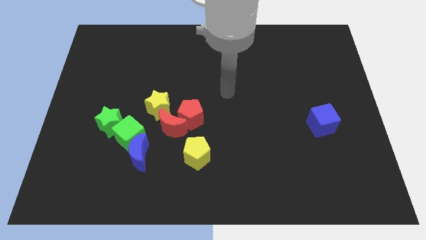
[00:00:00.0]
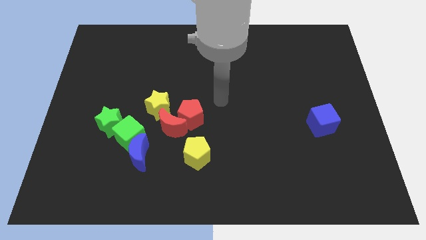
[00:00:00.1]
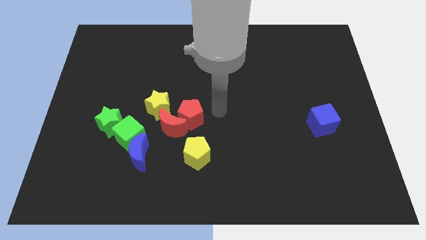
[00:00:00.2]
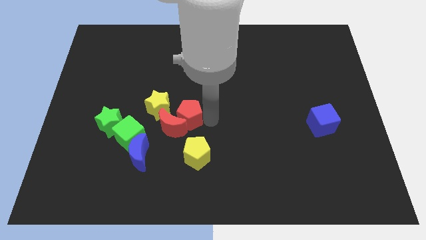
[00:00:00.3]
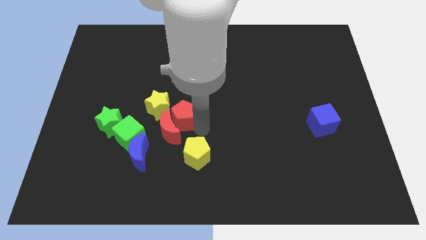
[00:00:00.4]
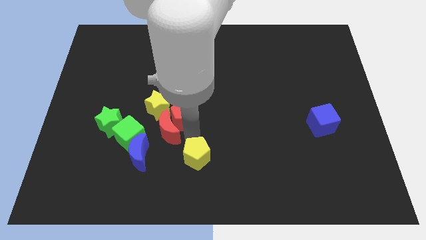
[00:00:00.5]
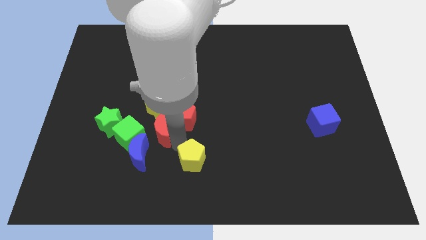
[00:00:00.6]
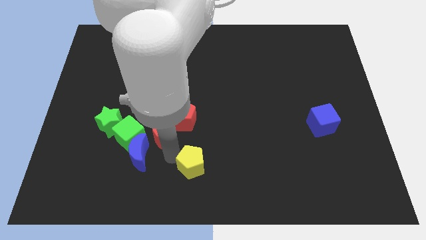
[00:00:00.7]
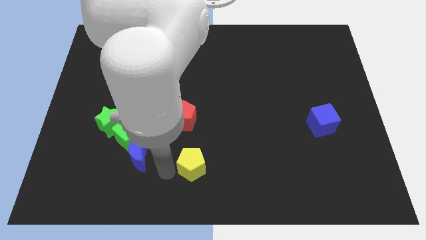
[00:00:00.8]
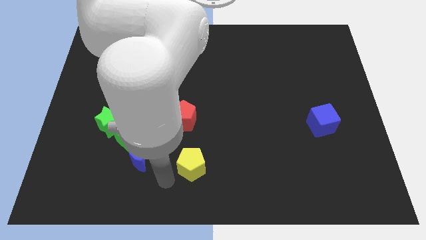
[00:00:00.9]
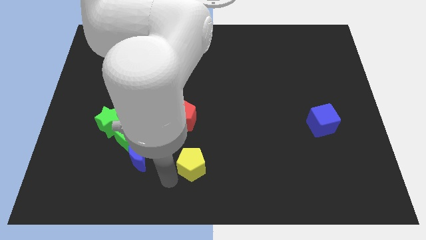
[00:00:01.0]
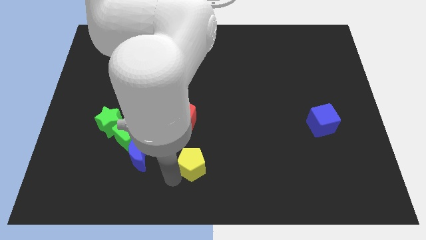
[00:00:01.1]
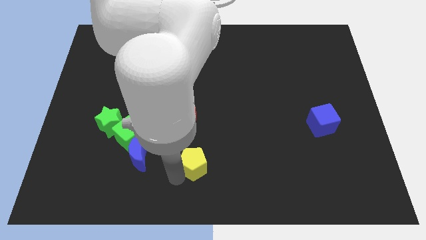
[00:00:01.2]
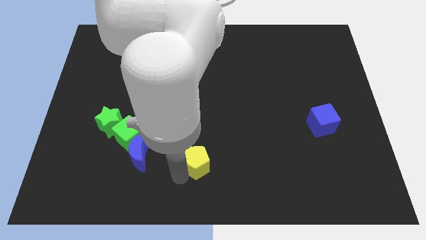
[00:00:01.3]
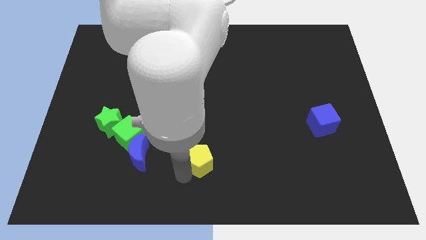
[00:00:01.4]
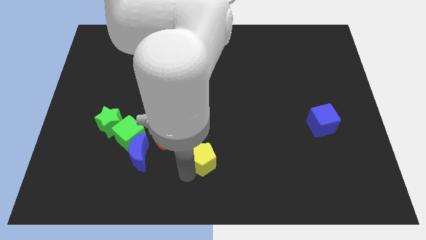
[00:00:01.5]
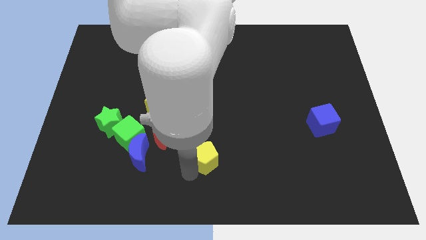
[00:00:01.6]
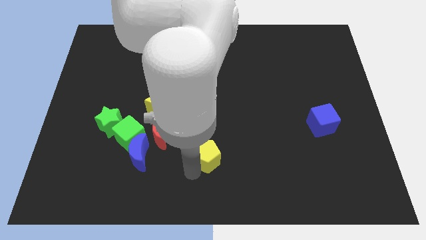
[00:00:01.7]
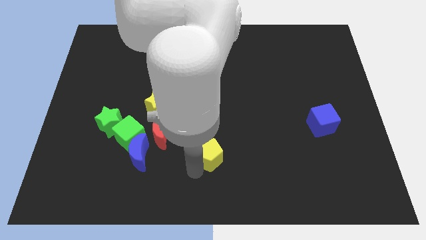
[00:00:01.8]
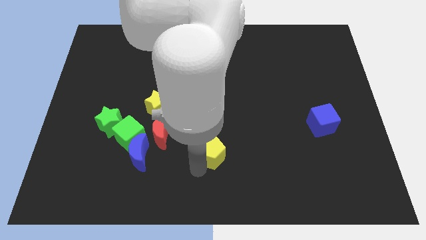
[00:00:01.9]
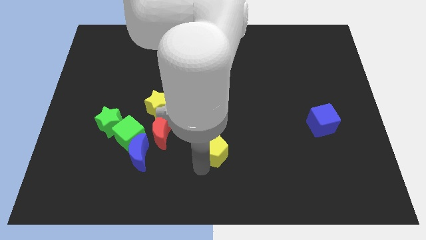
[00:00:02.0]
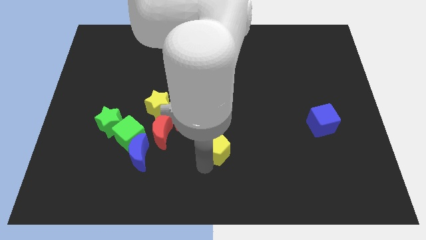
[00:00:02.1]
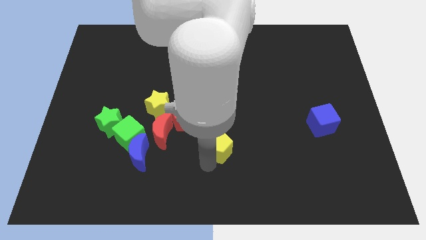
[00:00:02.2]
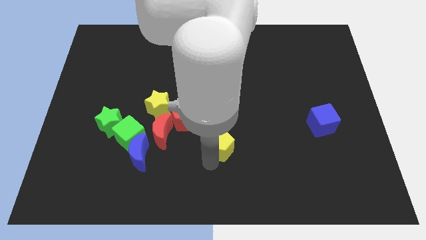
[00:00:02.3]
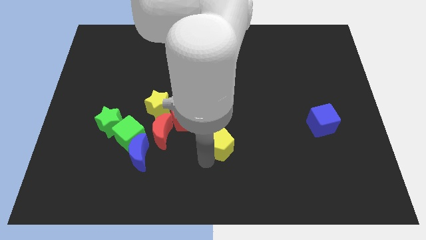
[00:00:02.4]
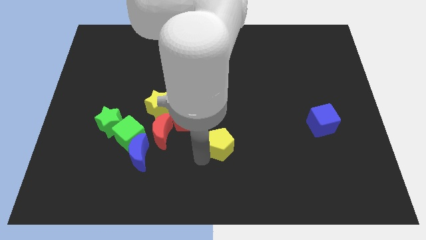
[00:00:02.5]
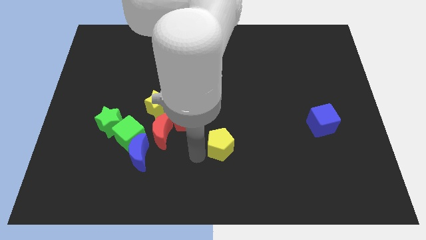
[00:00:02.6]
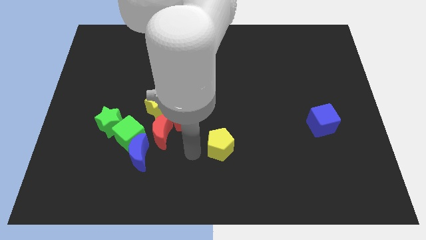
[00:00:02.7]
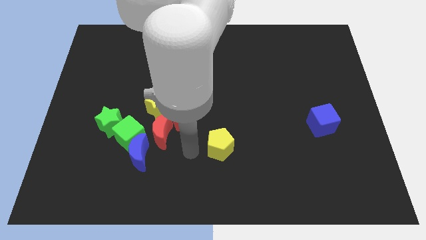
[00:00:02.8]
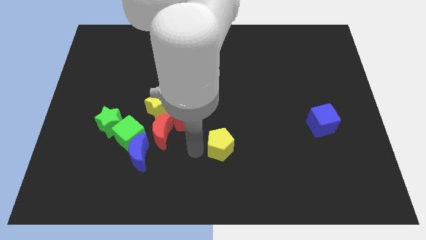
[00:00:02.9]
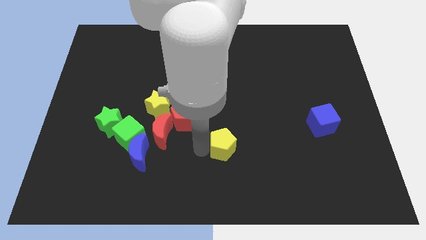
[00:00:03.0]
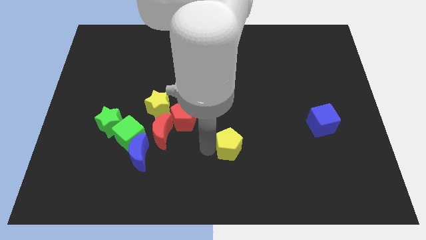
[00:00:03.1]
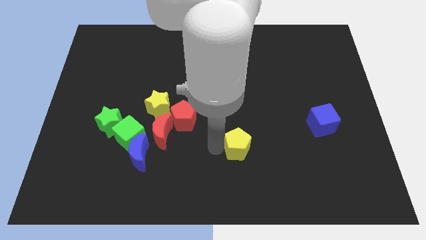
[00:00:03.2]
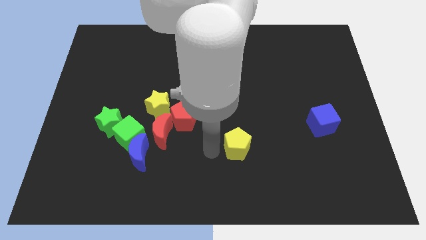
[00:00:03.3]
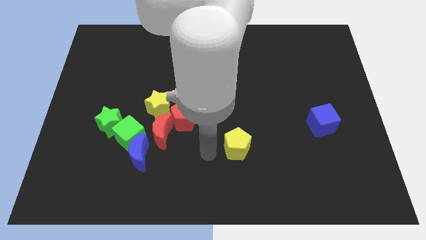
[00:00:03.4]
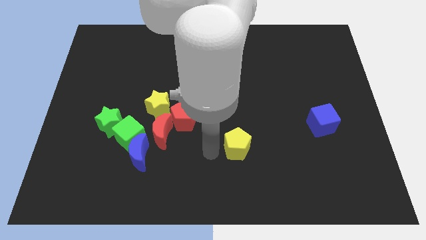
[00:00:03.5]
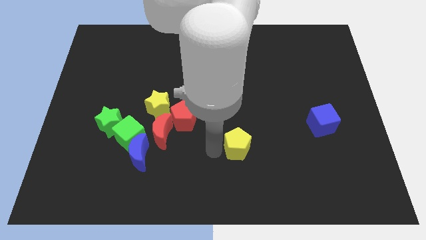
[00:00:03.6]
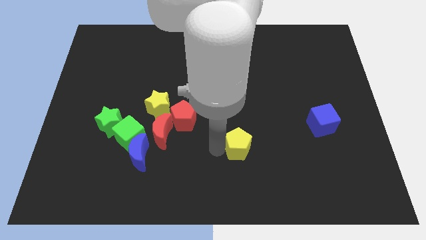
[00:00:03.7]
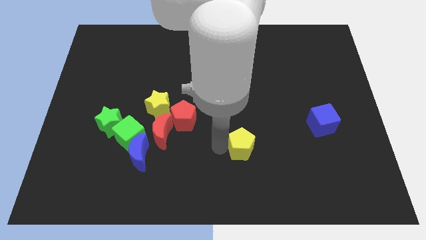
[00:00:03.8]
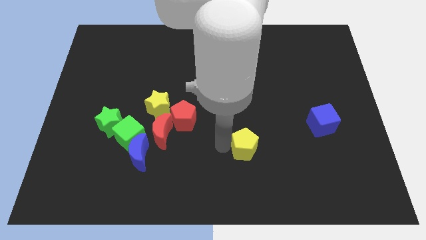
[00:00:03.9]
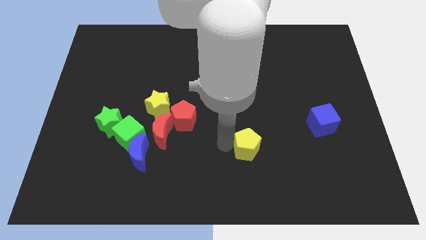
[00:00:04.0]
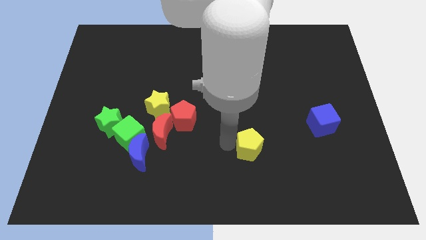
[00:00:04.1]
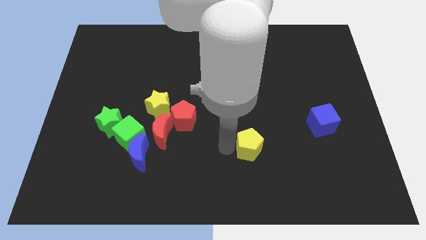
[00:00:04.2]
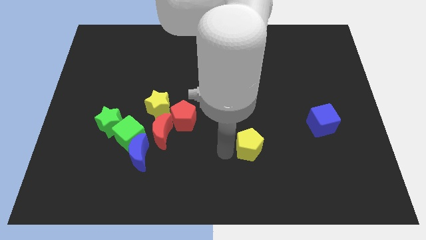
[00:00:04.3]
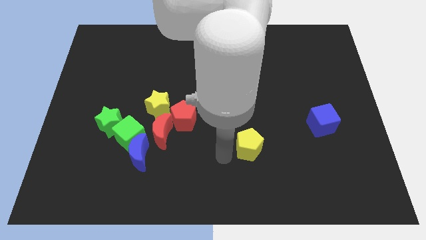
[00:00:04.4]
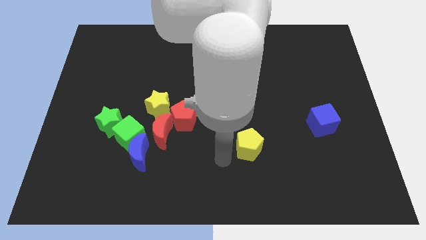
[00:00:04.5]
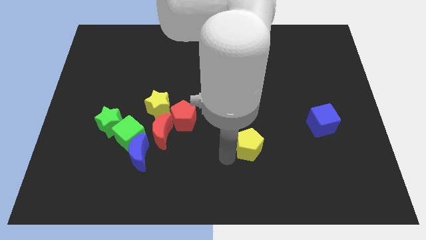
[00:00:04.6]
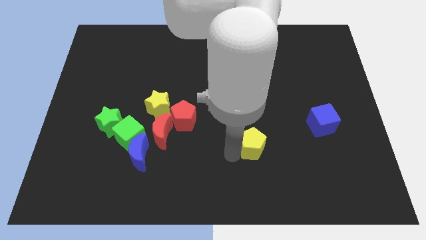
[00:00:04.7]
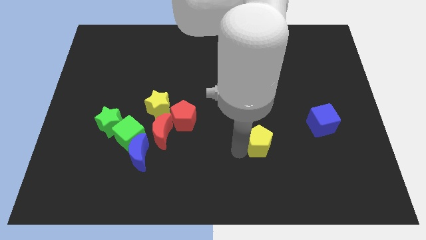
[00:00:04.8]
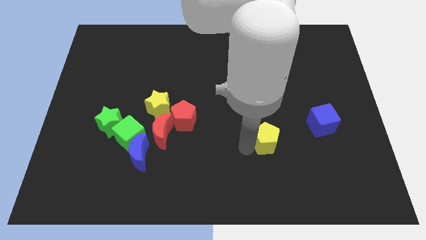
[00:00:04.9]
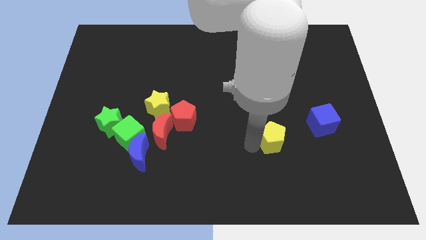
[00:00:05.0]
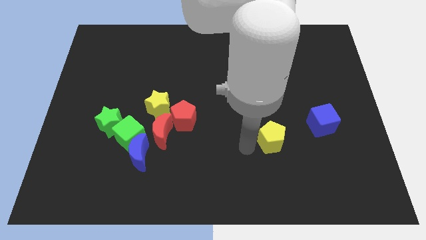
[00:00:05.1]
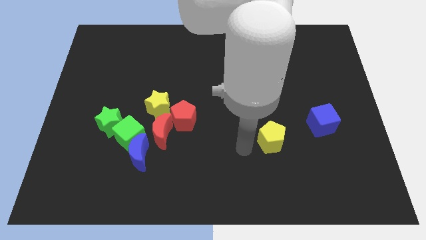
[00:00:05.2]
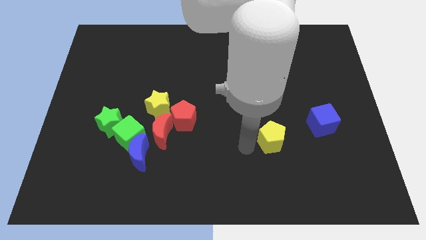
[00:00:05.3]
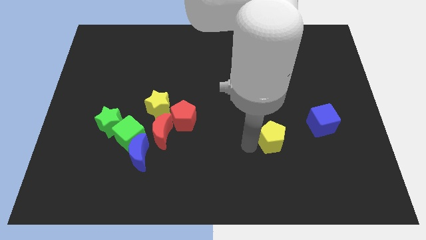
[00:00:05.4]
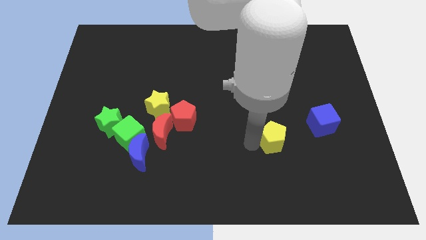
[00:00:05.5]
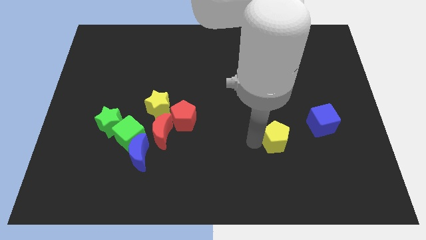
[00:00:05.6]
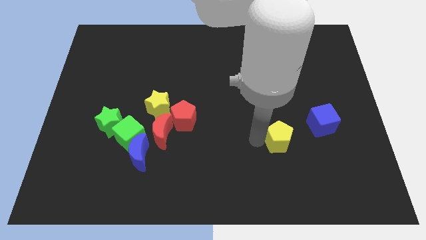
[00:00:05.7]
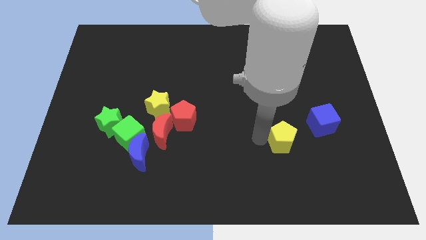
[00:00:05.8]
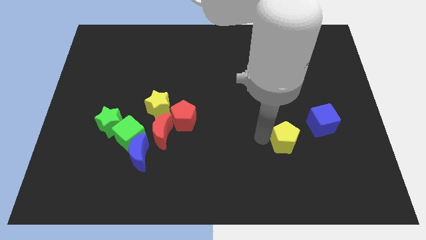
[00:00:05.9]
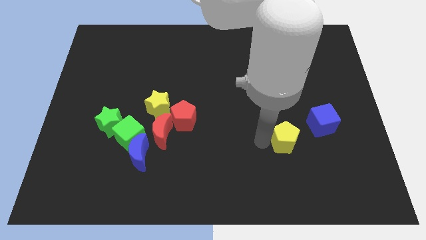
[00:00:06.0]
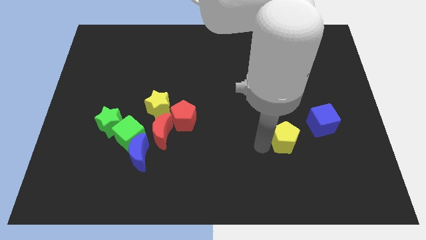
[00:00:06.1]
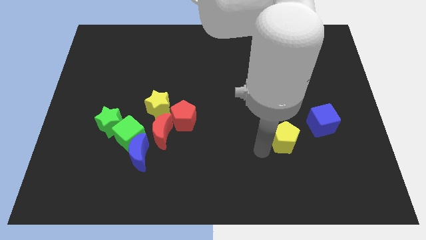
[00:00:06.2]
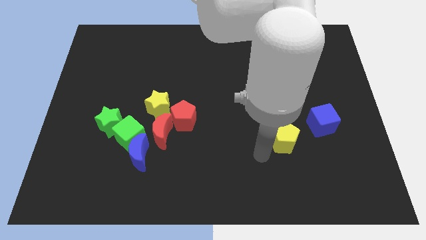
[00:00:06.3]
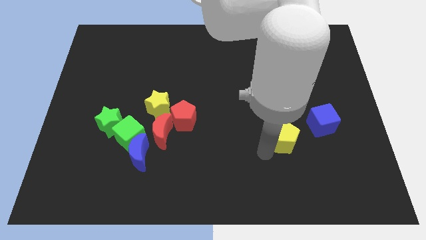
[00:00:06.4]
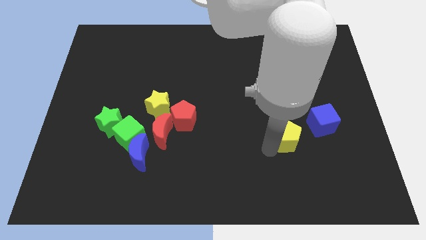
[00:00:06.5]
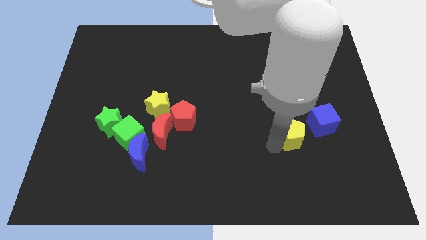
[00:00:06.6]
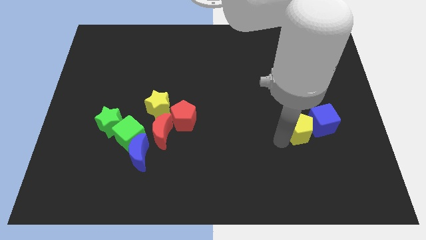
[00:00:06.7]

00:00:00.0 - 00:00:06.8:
push the yellow pentagon close to the blue cube
